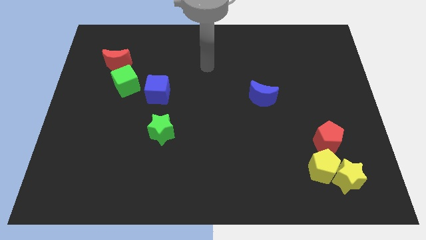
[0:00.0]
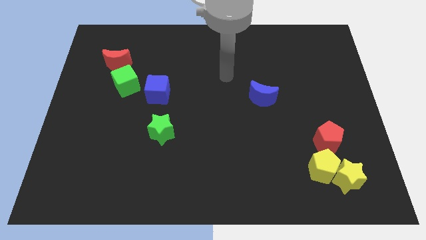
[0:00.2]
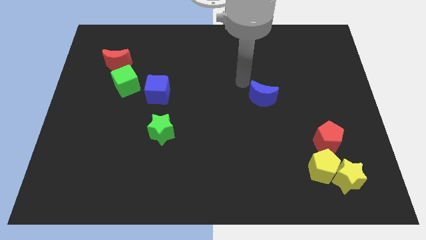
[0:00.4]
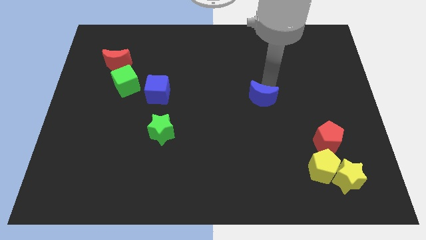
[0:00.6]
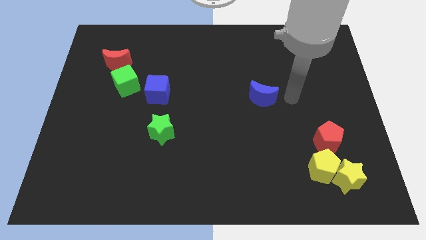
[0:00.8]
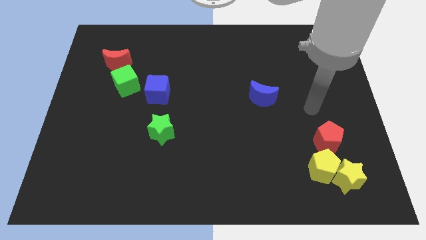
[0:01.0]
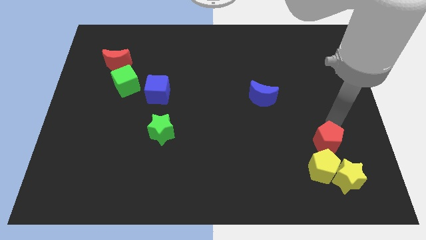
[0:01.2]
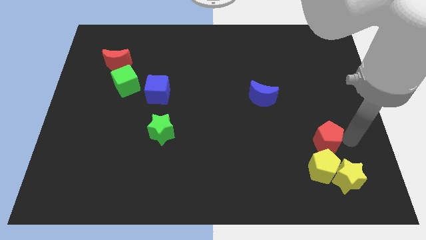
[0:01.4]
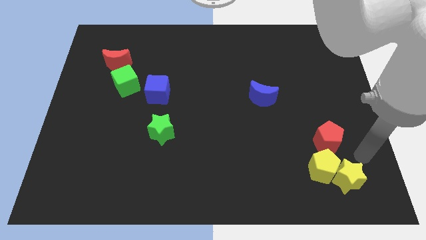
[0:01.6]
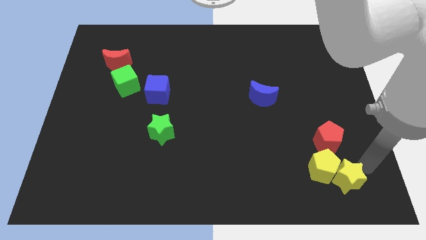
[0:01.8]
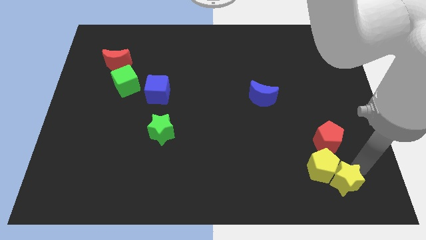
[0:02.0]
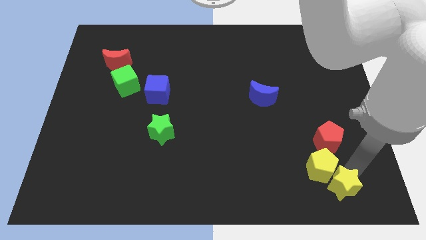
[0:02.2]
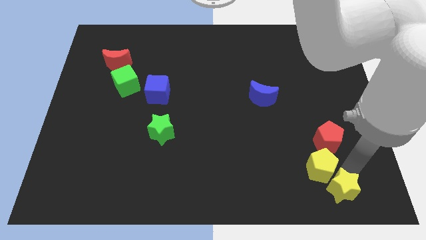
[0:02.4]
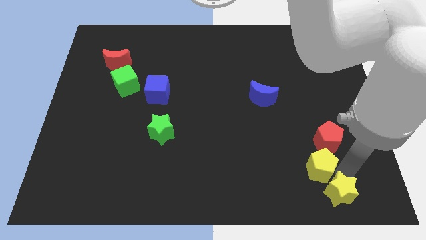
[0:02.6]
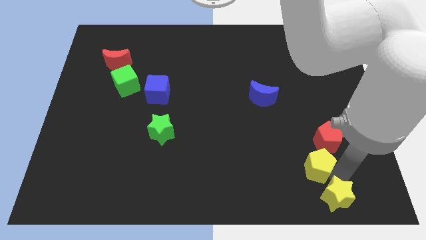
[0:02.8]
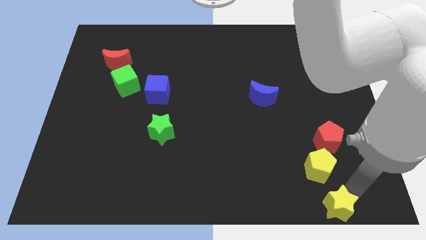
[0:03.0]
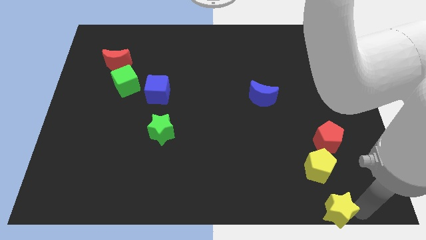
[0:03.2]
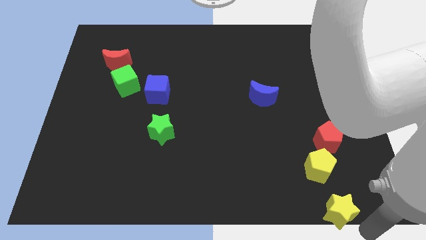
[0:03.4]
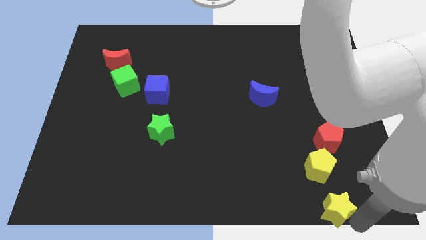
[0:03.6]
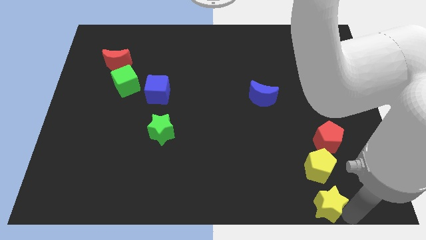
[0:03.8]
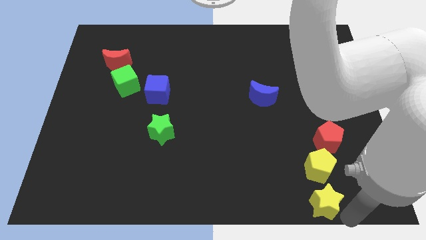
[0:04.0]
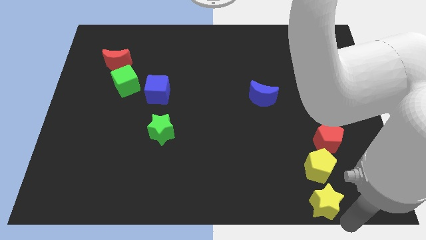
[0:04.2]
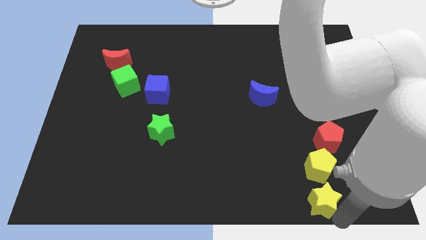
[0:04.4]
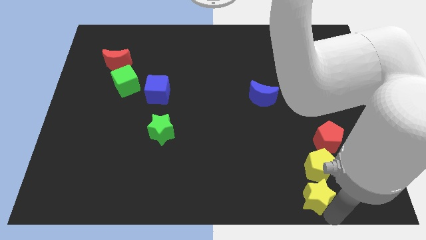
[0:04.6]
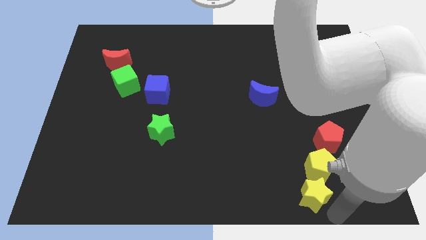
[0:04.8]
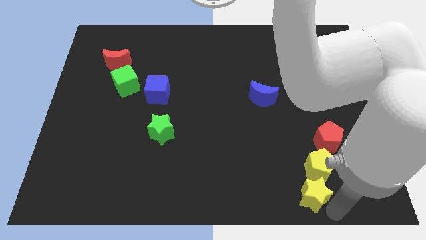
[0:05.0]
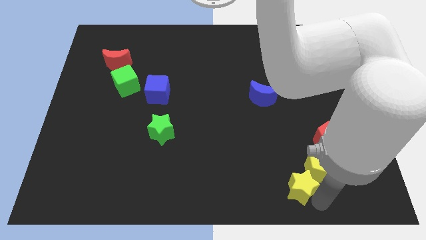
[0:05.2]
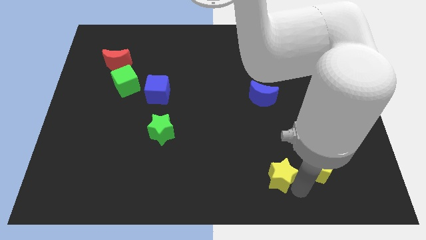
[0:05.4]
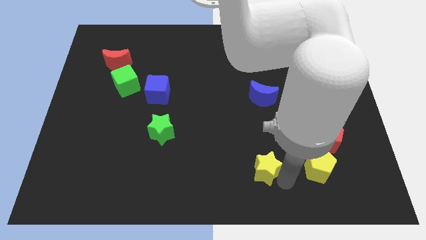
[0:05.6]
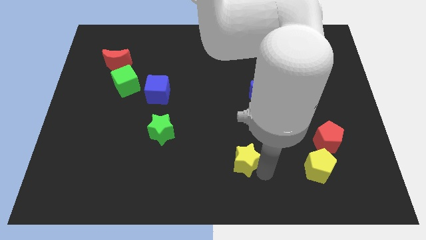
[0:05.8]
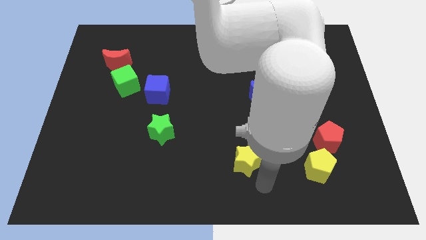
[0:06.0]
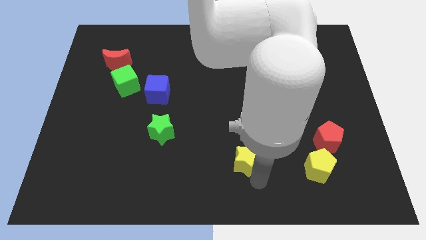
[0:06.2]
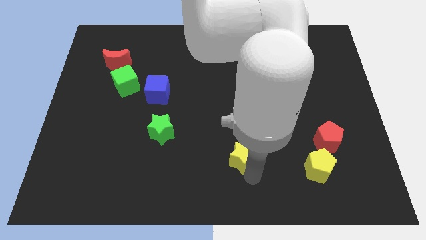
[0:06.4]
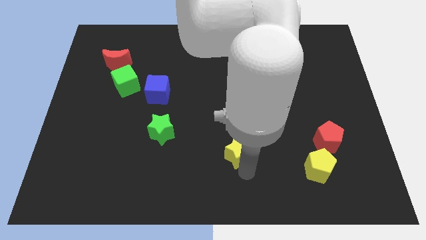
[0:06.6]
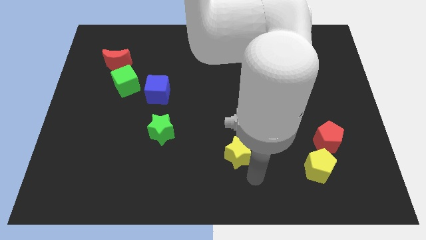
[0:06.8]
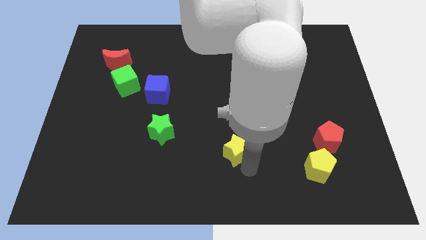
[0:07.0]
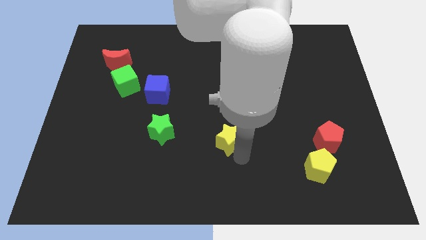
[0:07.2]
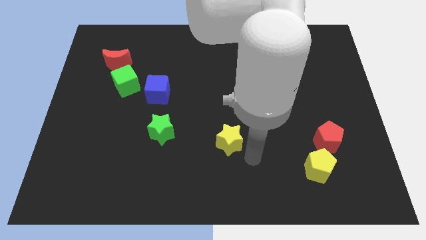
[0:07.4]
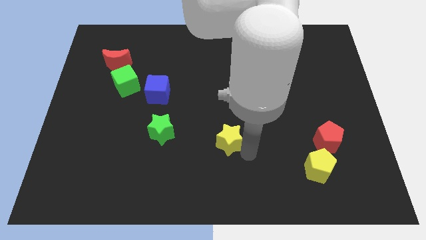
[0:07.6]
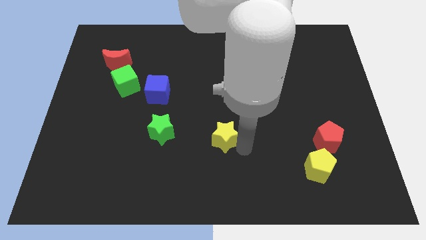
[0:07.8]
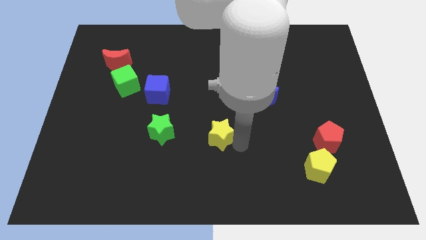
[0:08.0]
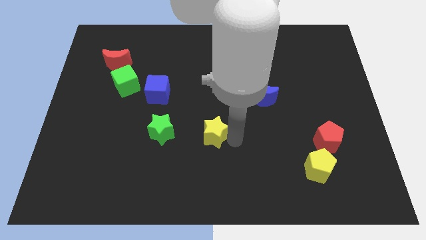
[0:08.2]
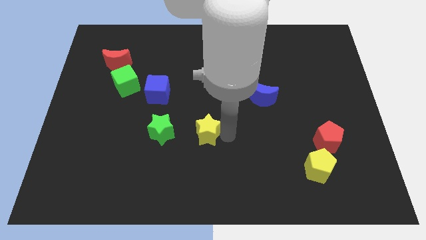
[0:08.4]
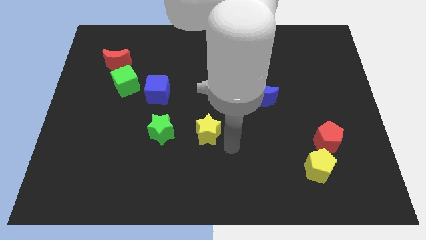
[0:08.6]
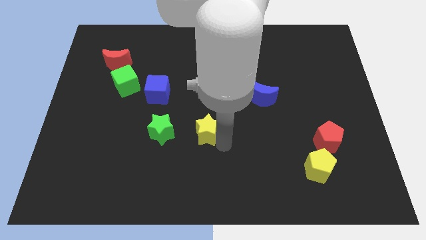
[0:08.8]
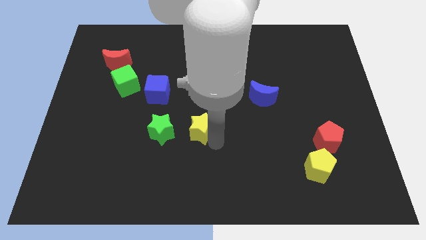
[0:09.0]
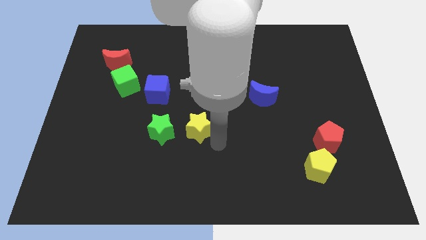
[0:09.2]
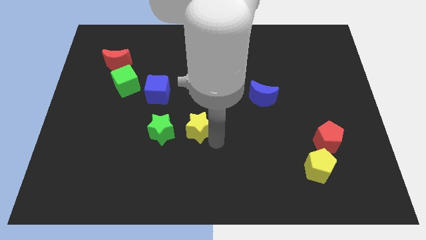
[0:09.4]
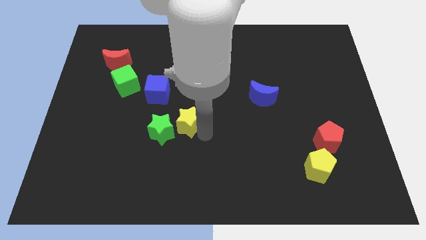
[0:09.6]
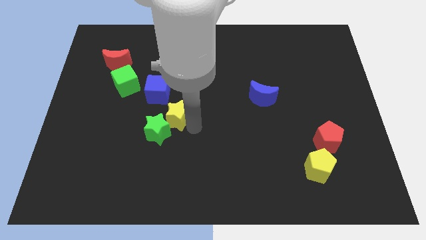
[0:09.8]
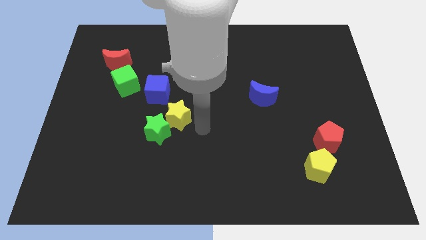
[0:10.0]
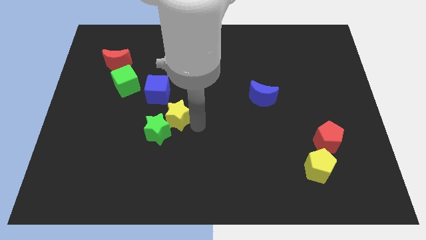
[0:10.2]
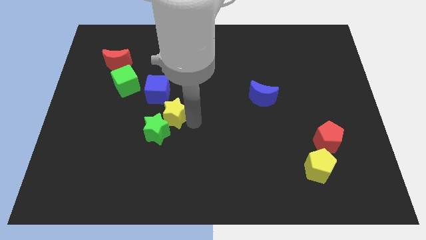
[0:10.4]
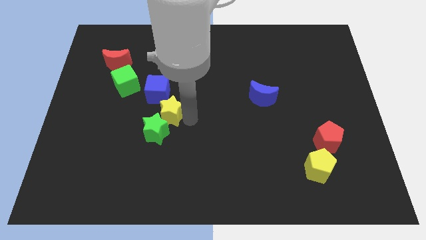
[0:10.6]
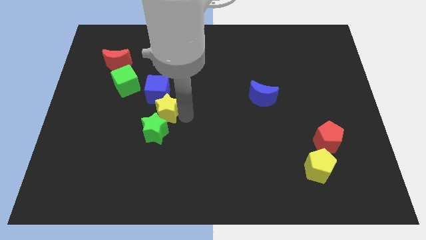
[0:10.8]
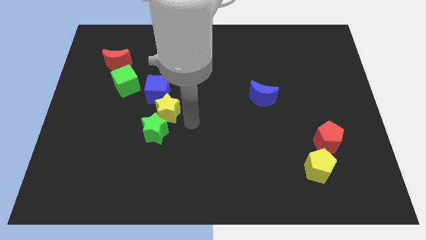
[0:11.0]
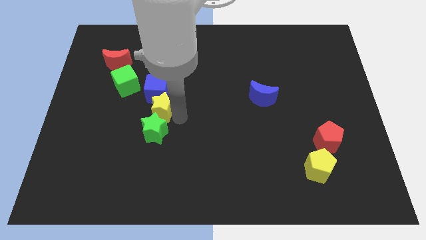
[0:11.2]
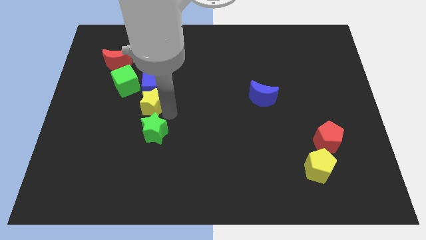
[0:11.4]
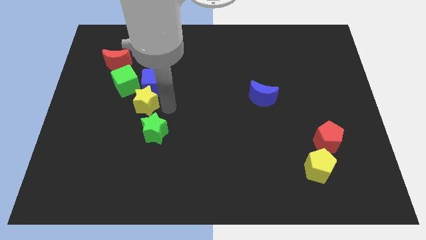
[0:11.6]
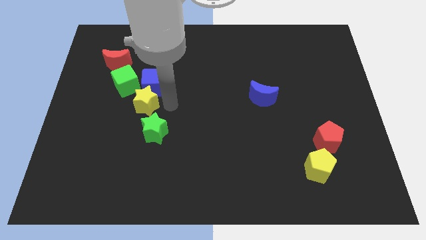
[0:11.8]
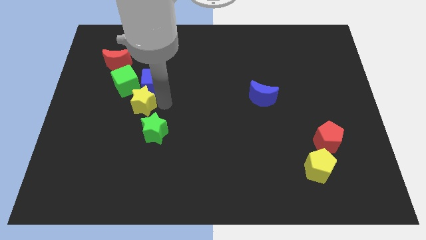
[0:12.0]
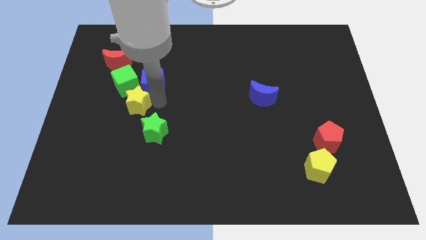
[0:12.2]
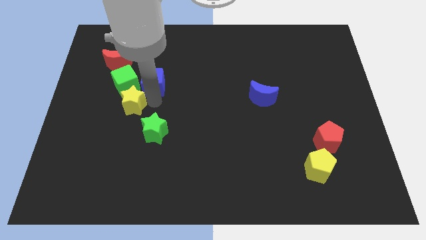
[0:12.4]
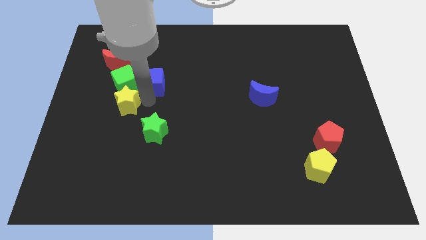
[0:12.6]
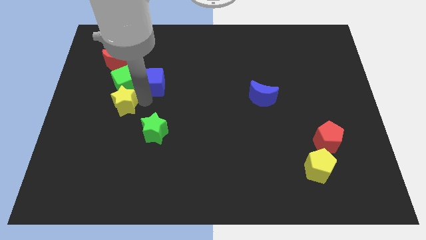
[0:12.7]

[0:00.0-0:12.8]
push the yellow star diagonally down and to the left of the green cube

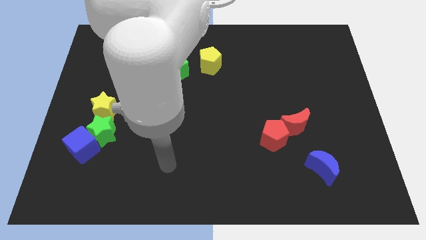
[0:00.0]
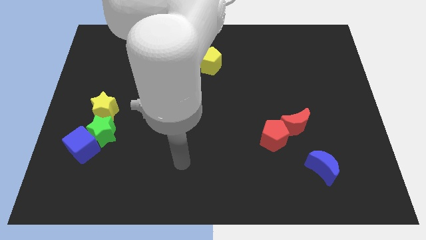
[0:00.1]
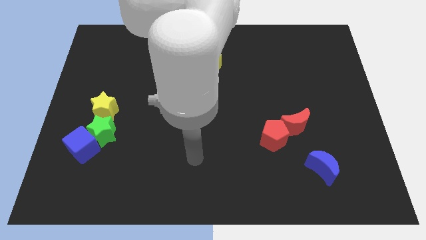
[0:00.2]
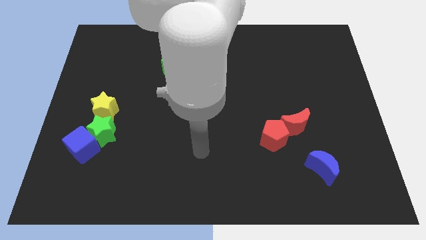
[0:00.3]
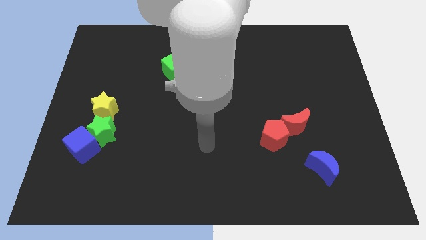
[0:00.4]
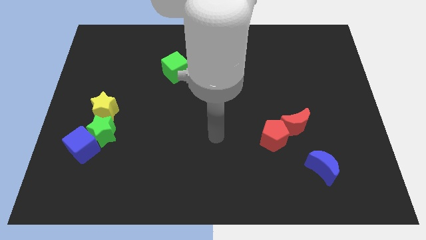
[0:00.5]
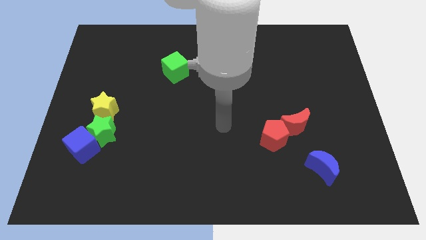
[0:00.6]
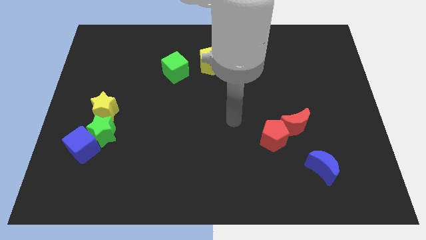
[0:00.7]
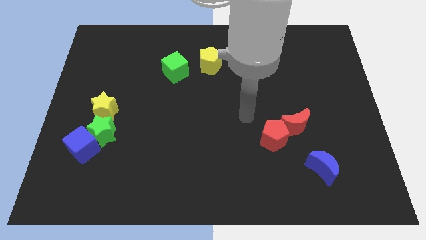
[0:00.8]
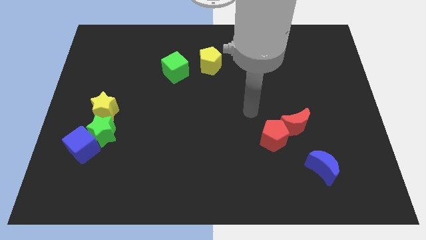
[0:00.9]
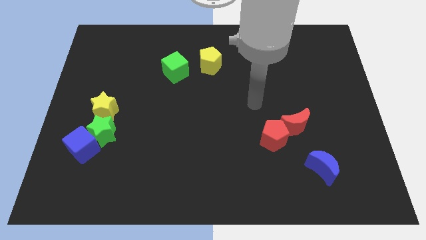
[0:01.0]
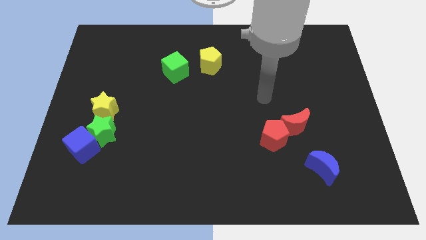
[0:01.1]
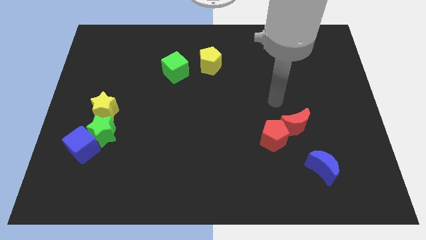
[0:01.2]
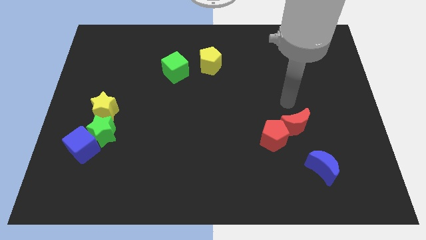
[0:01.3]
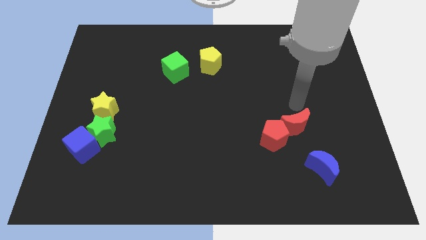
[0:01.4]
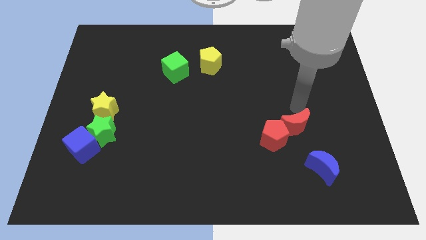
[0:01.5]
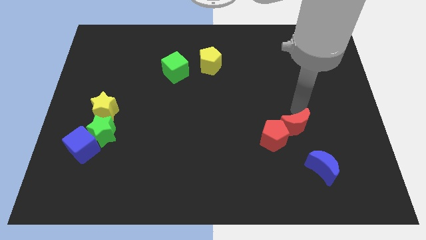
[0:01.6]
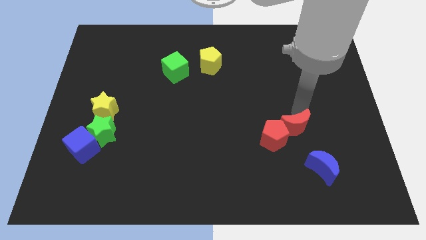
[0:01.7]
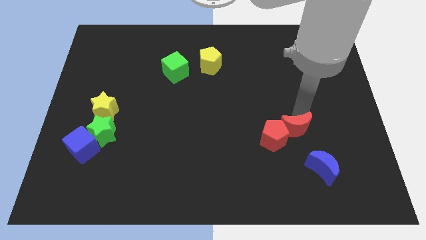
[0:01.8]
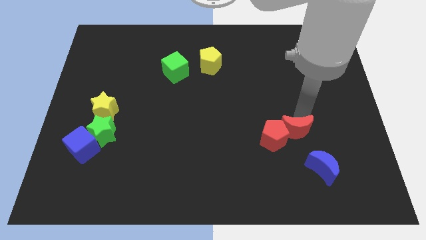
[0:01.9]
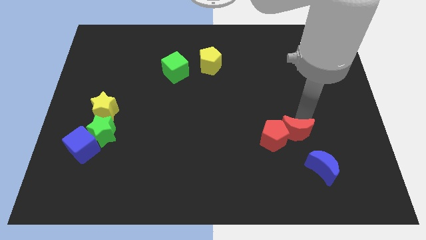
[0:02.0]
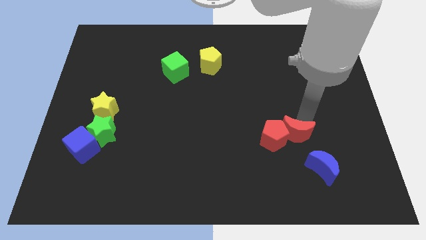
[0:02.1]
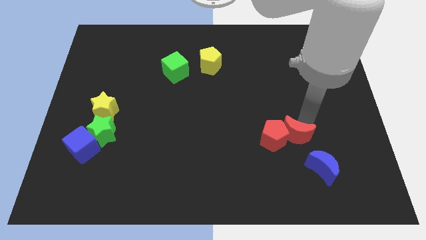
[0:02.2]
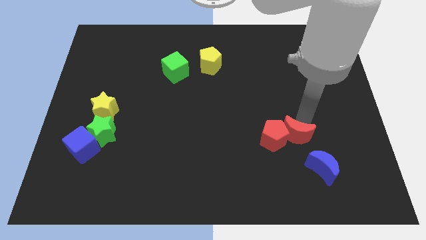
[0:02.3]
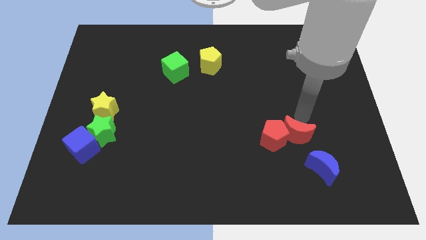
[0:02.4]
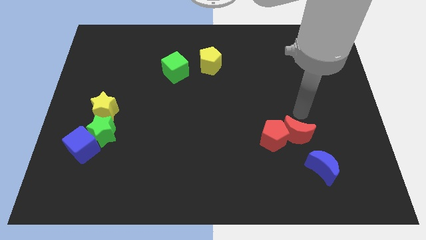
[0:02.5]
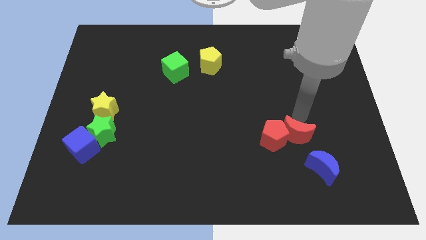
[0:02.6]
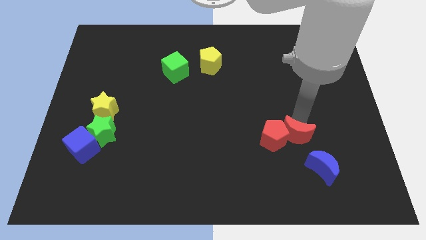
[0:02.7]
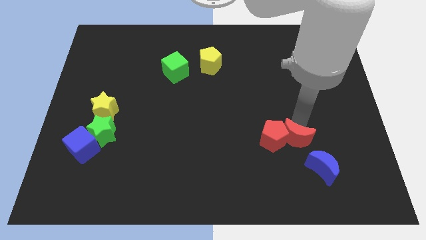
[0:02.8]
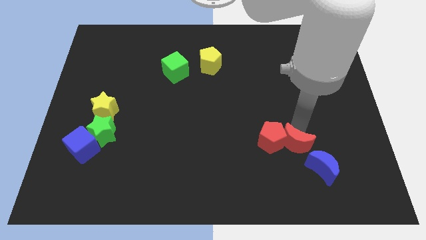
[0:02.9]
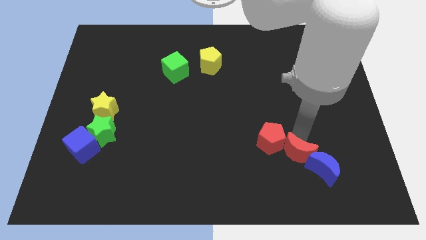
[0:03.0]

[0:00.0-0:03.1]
slide the red moon just left of the blue moon
